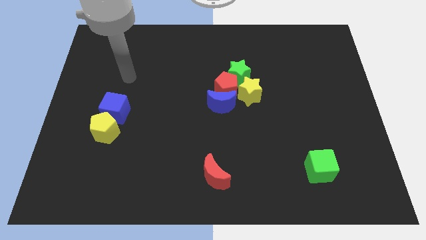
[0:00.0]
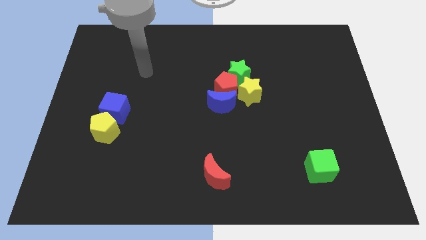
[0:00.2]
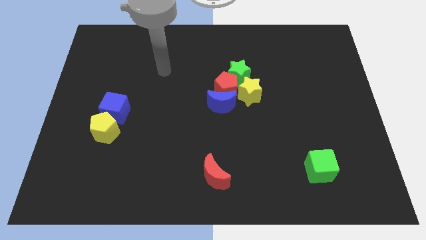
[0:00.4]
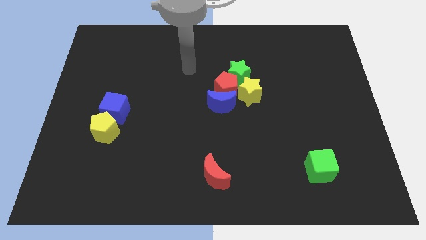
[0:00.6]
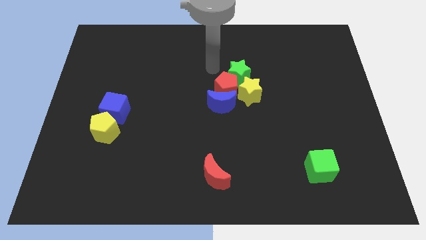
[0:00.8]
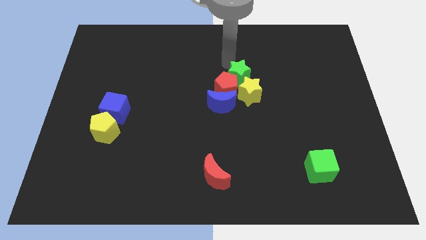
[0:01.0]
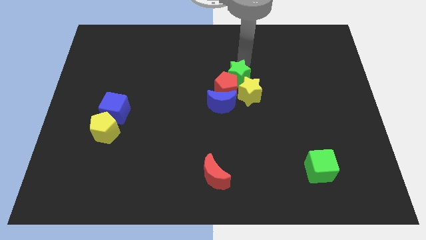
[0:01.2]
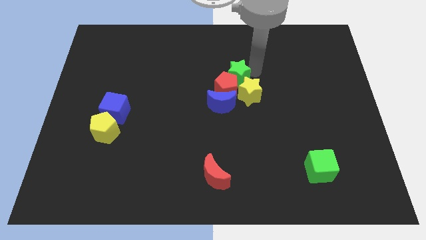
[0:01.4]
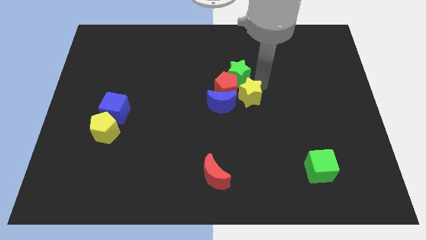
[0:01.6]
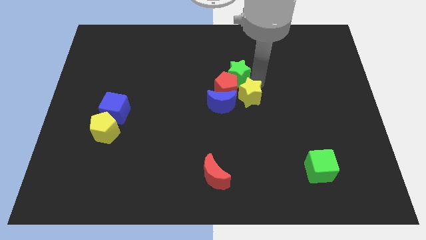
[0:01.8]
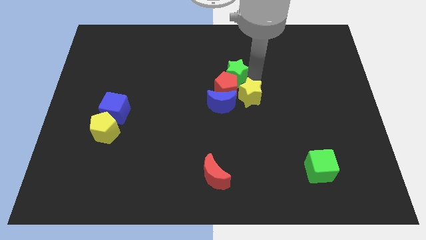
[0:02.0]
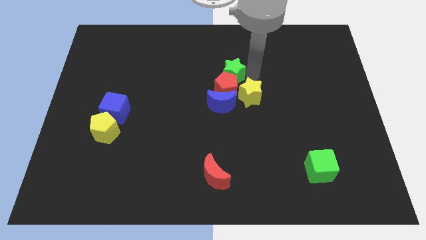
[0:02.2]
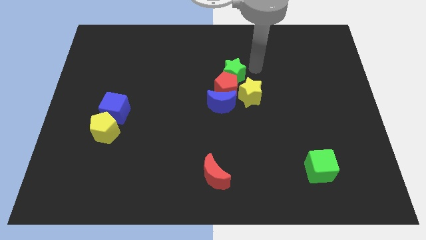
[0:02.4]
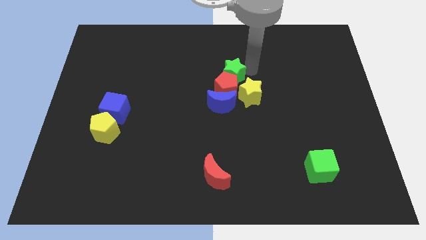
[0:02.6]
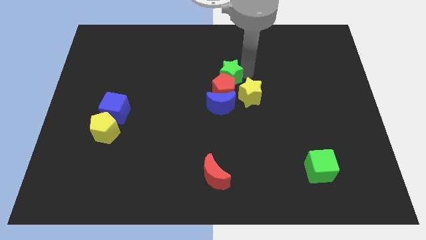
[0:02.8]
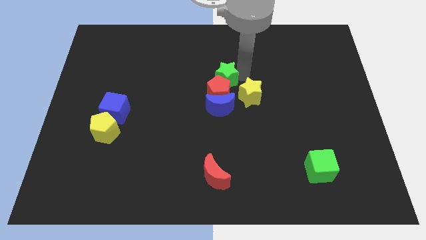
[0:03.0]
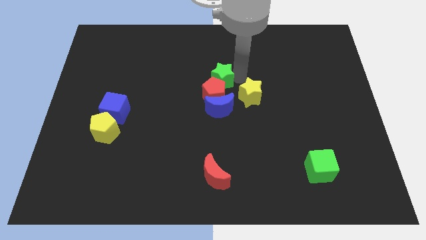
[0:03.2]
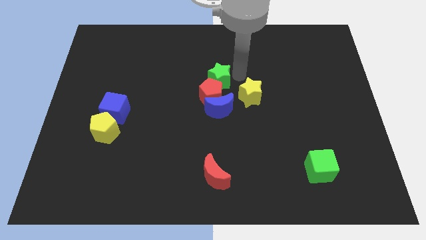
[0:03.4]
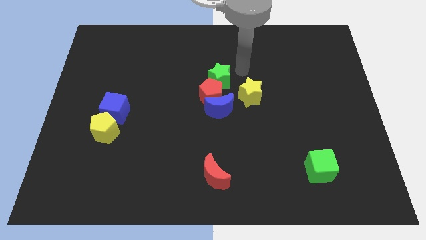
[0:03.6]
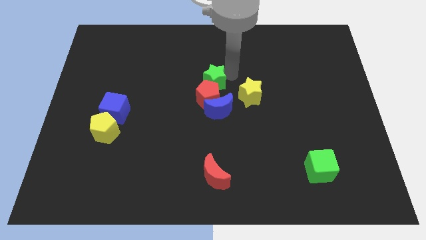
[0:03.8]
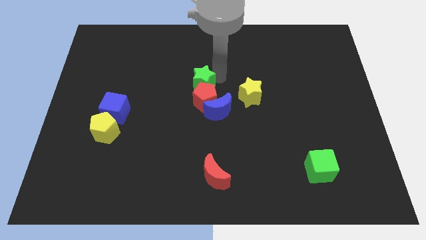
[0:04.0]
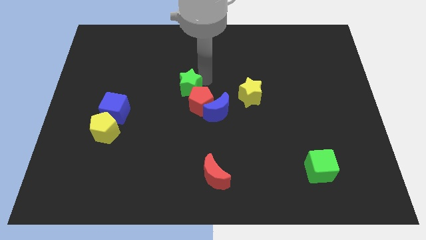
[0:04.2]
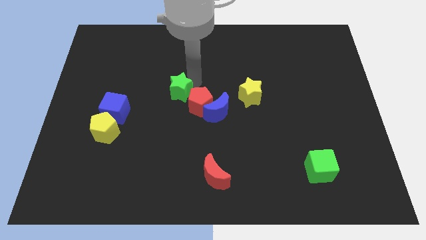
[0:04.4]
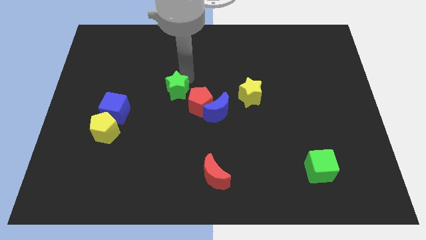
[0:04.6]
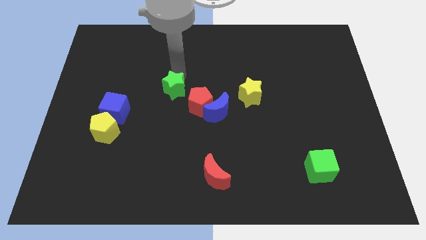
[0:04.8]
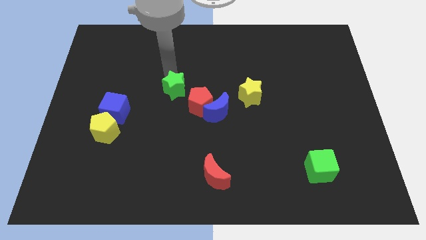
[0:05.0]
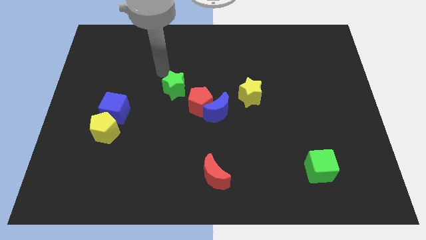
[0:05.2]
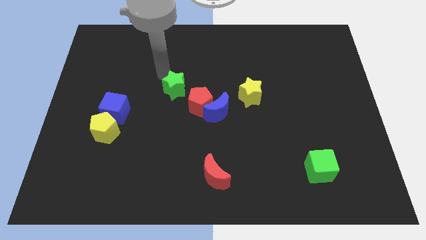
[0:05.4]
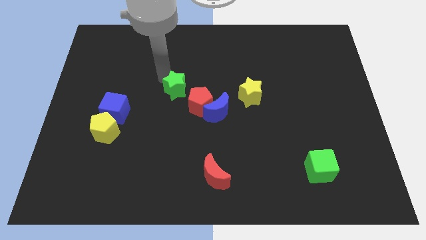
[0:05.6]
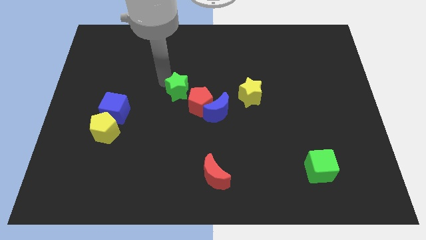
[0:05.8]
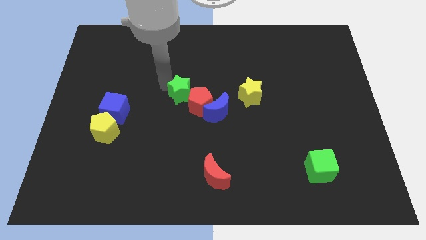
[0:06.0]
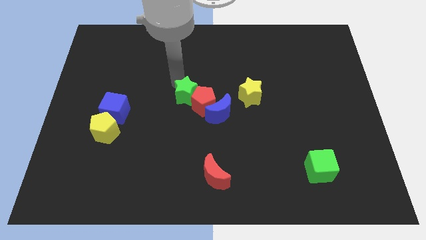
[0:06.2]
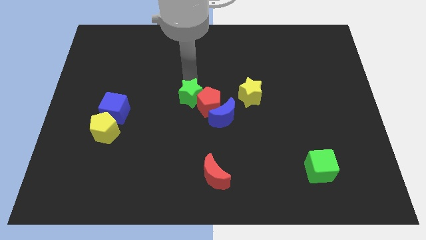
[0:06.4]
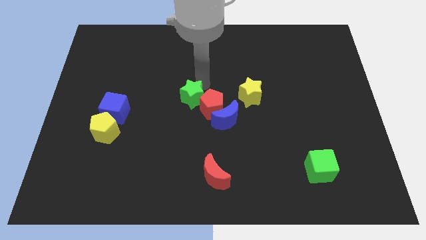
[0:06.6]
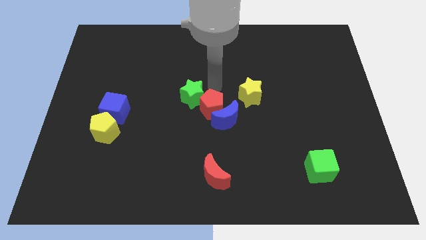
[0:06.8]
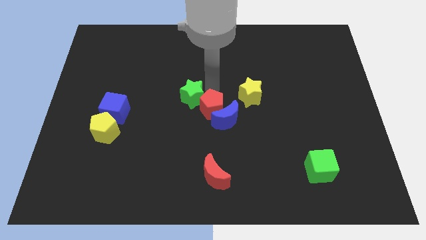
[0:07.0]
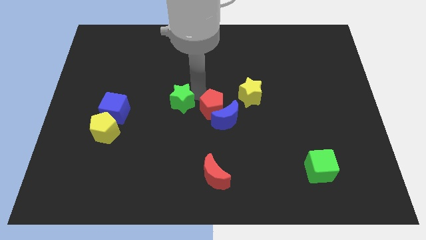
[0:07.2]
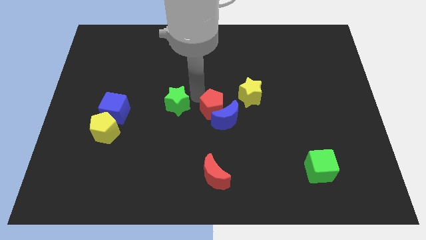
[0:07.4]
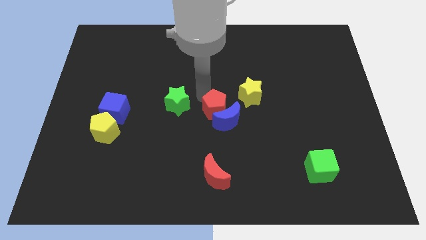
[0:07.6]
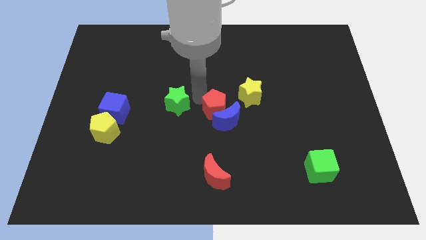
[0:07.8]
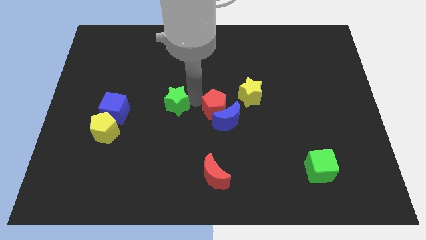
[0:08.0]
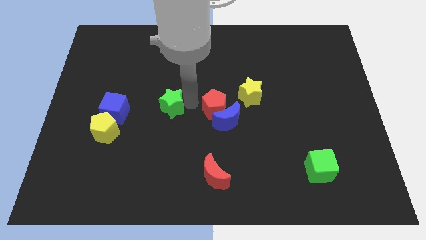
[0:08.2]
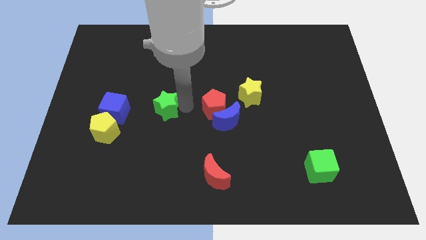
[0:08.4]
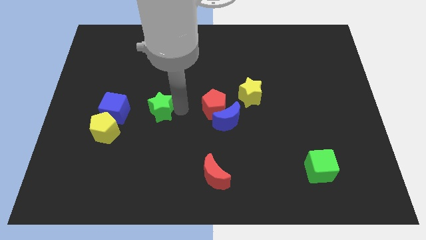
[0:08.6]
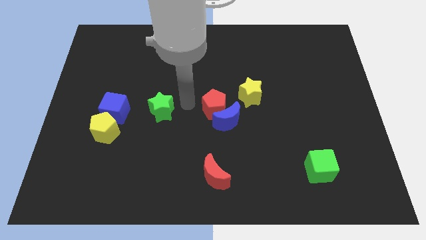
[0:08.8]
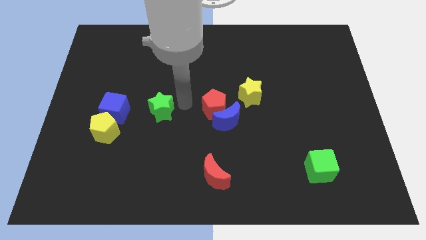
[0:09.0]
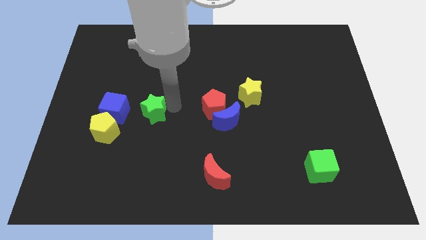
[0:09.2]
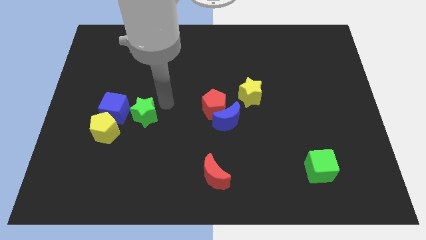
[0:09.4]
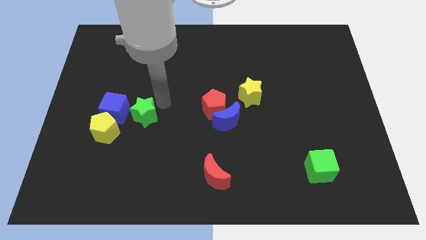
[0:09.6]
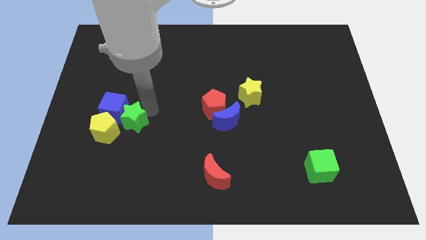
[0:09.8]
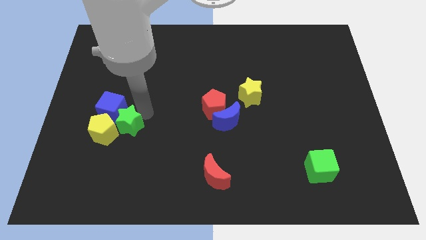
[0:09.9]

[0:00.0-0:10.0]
move the green star towards the yellow pentagon

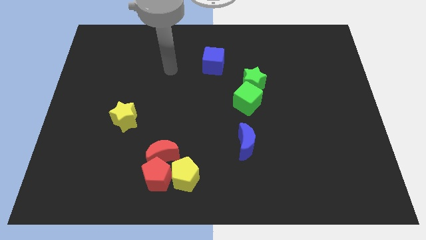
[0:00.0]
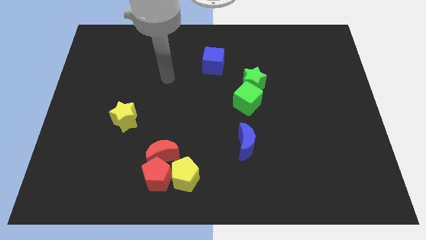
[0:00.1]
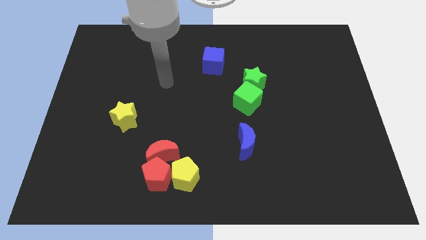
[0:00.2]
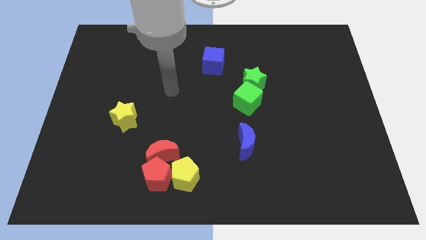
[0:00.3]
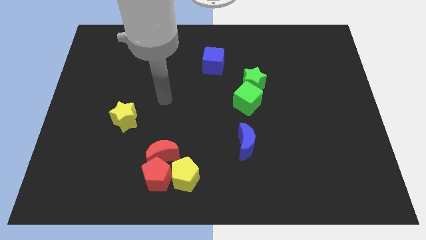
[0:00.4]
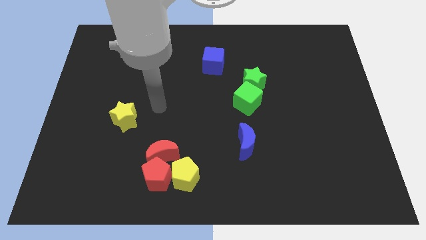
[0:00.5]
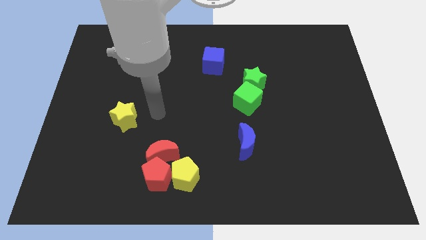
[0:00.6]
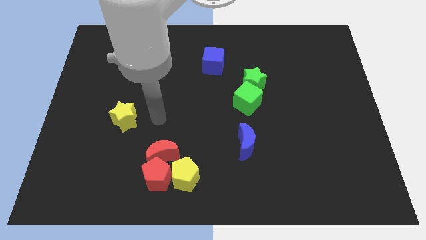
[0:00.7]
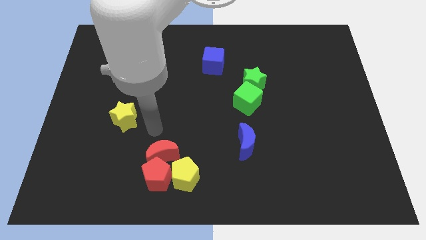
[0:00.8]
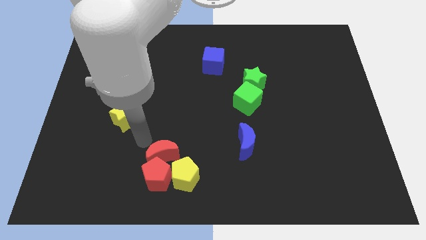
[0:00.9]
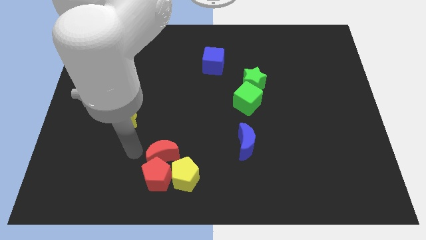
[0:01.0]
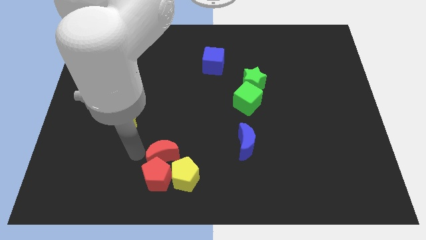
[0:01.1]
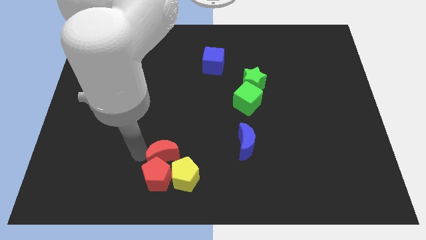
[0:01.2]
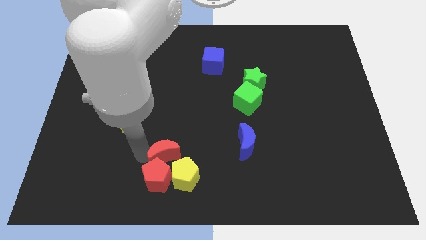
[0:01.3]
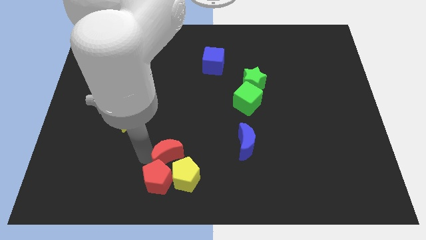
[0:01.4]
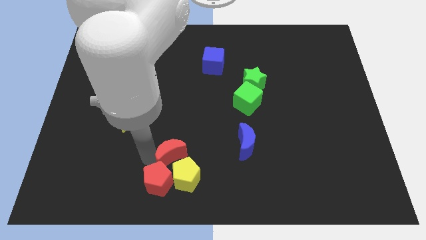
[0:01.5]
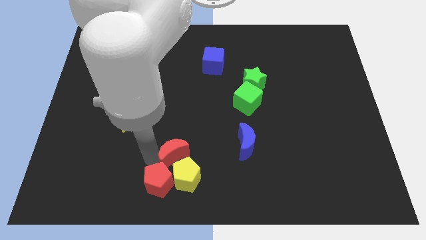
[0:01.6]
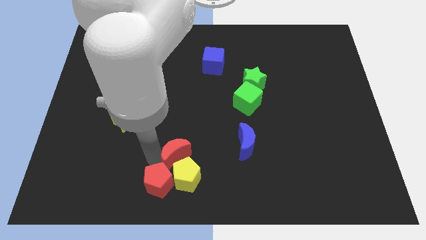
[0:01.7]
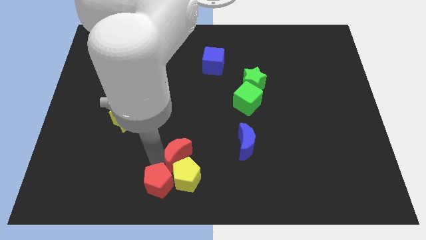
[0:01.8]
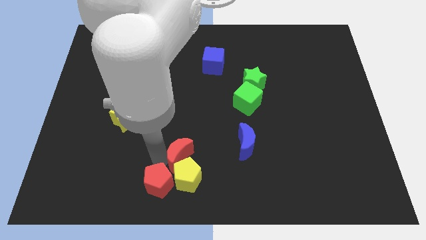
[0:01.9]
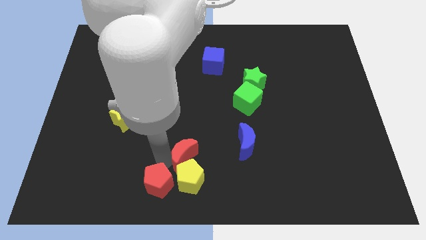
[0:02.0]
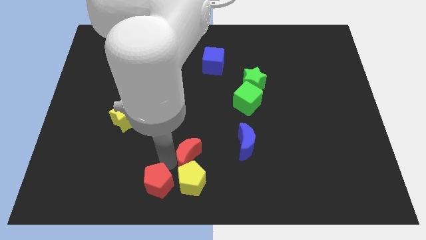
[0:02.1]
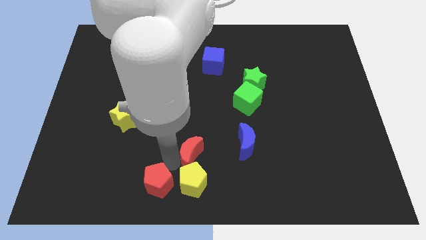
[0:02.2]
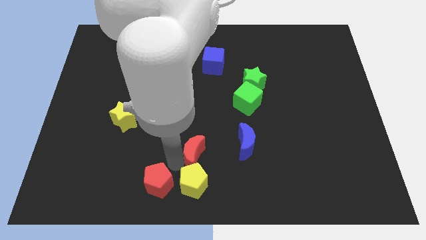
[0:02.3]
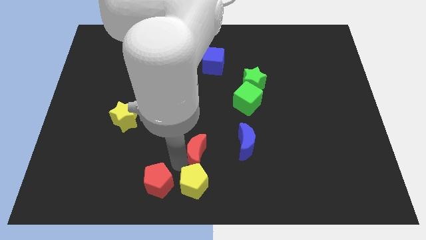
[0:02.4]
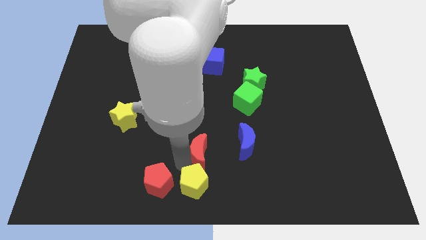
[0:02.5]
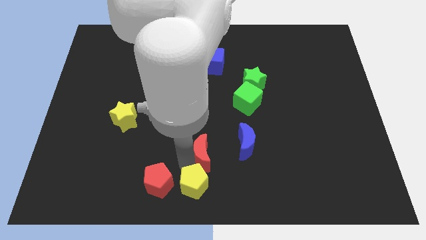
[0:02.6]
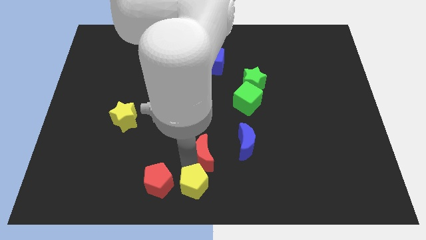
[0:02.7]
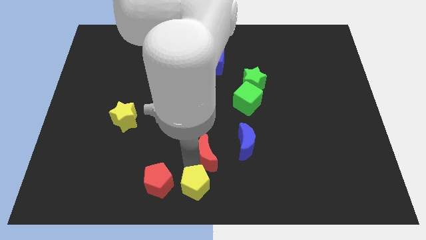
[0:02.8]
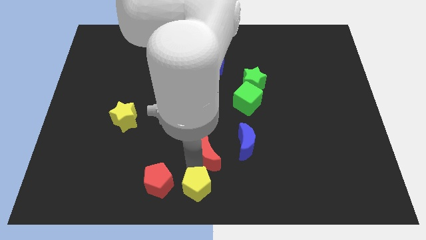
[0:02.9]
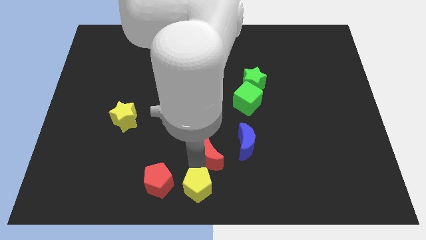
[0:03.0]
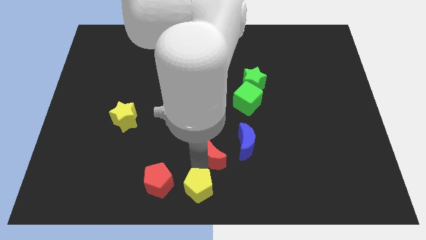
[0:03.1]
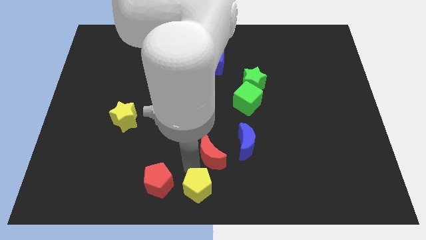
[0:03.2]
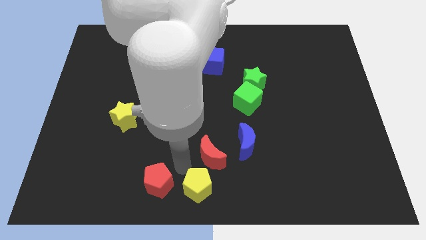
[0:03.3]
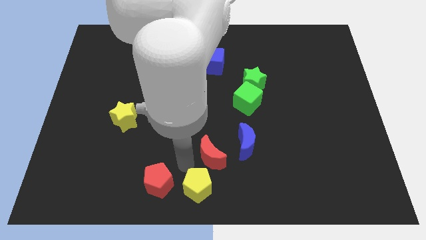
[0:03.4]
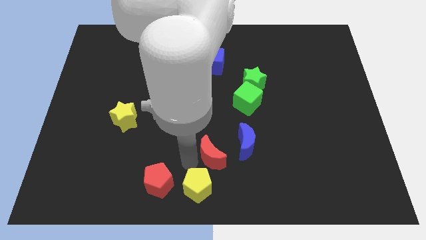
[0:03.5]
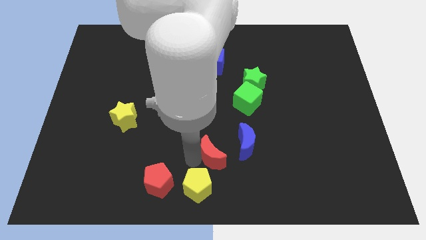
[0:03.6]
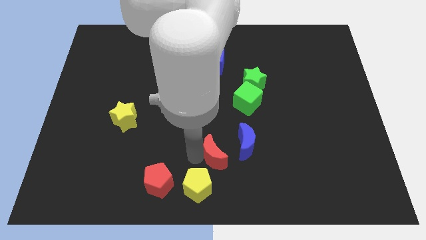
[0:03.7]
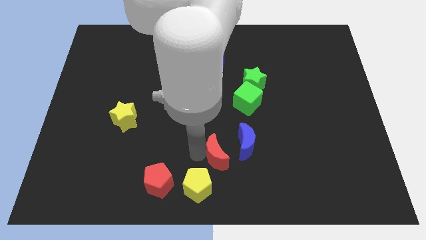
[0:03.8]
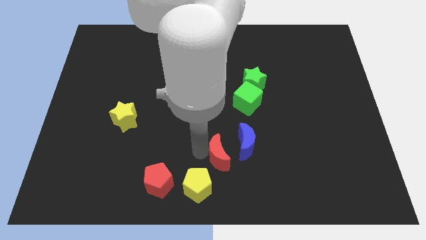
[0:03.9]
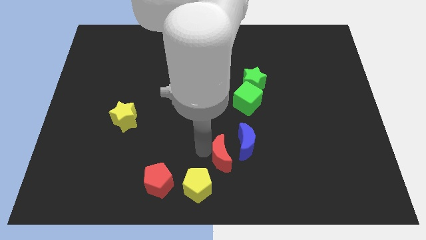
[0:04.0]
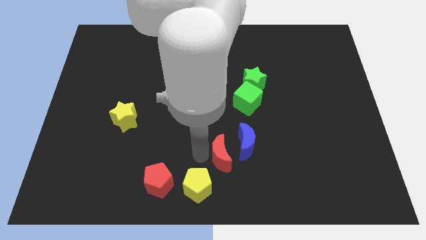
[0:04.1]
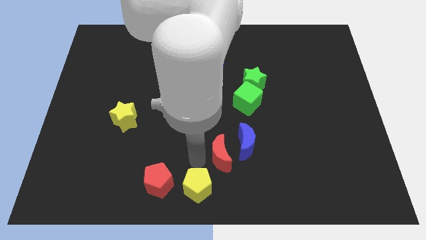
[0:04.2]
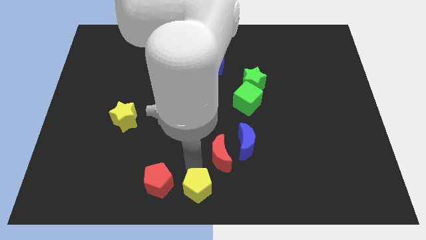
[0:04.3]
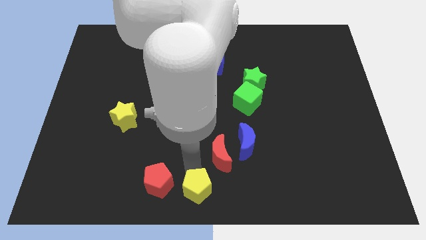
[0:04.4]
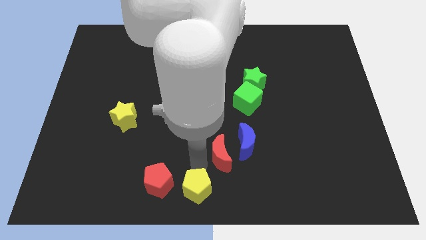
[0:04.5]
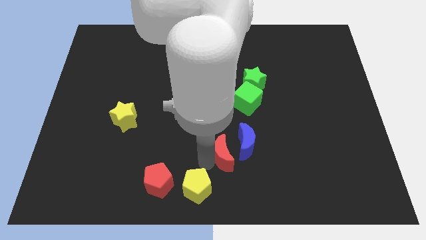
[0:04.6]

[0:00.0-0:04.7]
move the red moon to the blue moon
